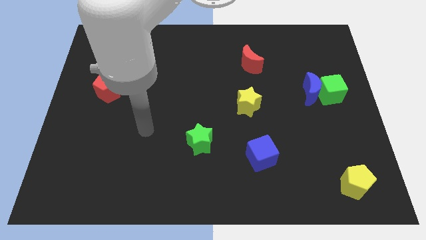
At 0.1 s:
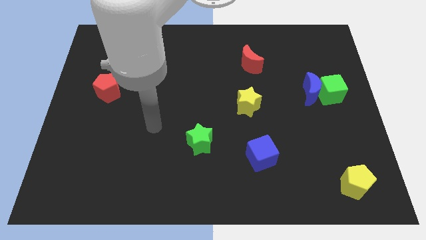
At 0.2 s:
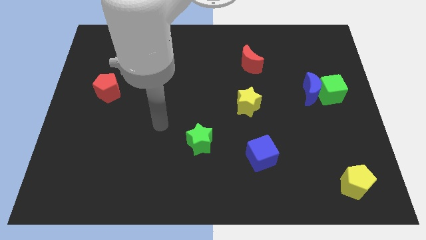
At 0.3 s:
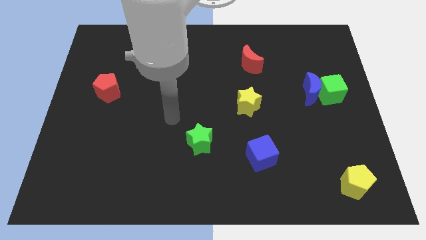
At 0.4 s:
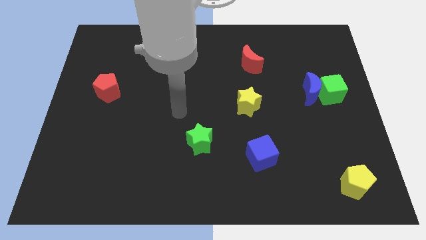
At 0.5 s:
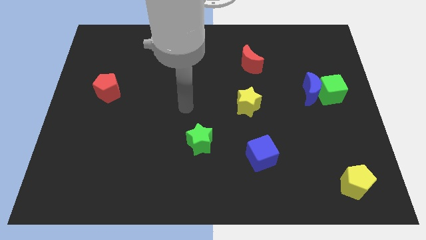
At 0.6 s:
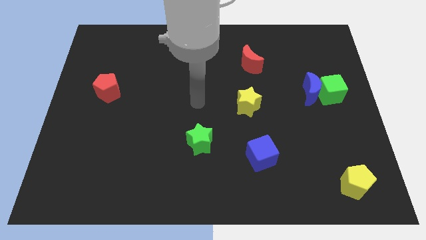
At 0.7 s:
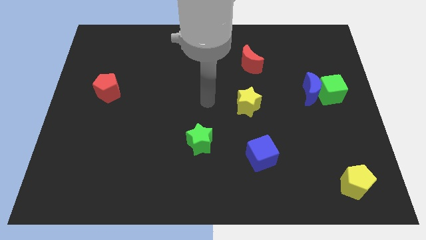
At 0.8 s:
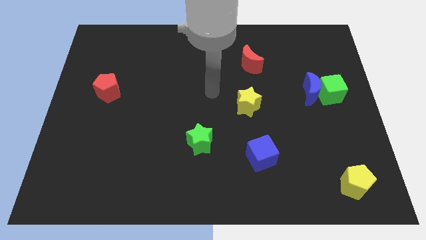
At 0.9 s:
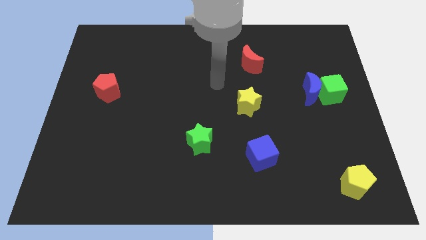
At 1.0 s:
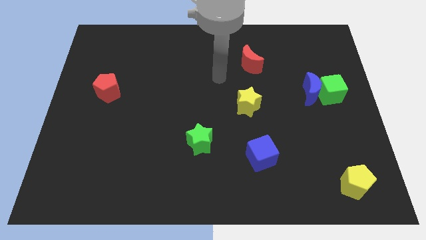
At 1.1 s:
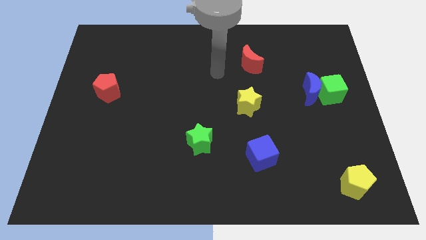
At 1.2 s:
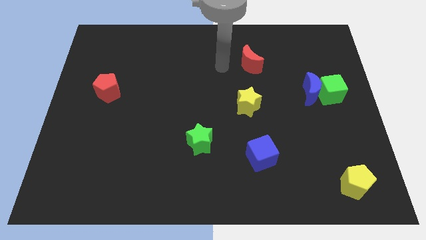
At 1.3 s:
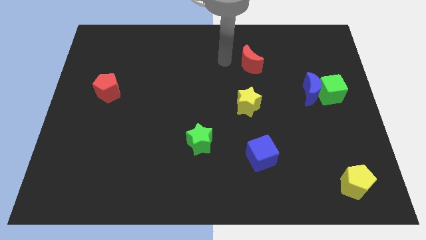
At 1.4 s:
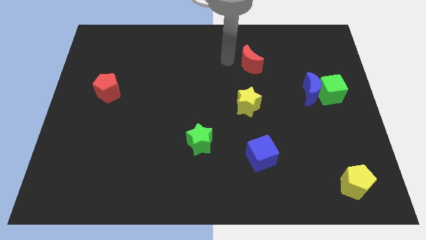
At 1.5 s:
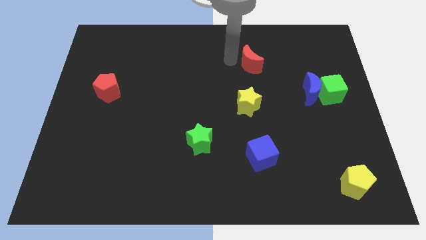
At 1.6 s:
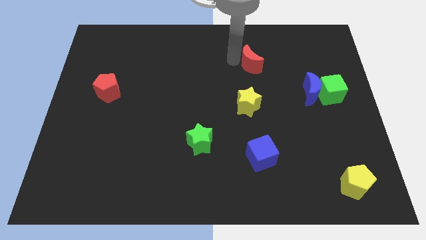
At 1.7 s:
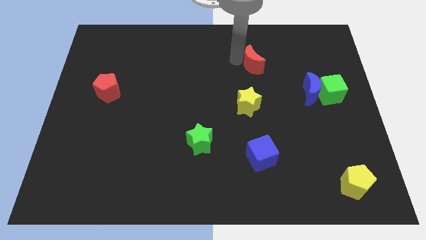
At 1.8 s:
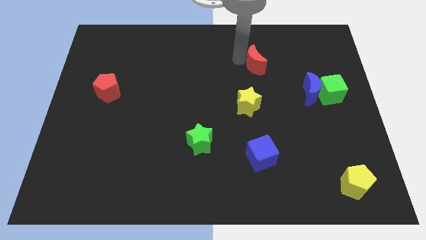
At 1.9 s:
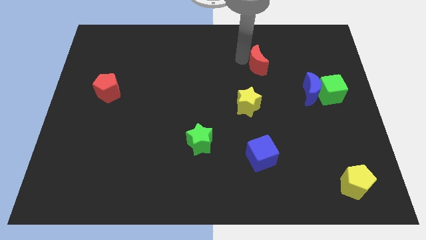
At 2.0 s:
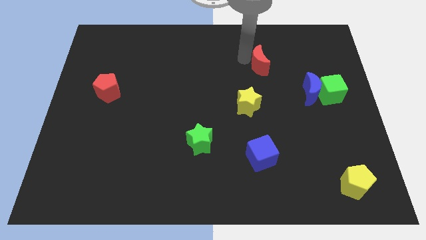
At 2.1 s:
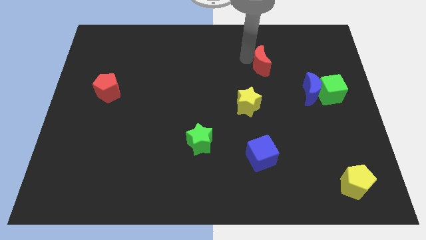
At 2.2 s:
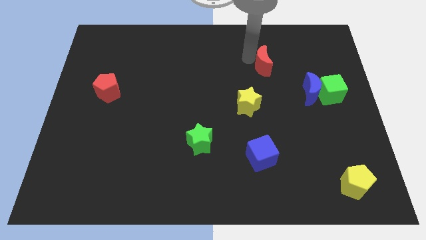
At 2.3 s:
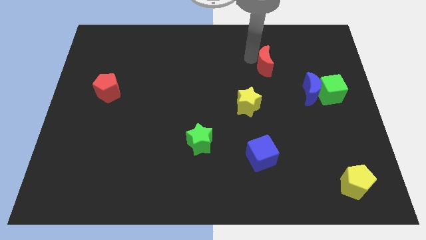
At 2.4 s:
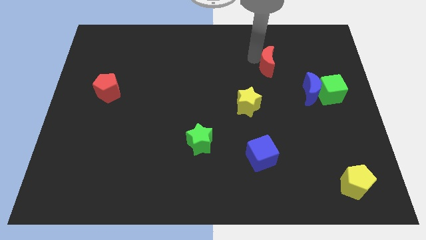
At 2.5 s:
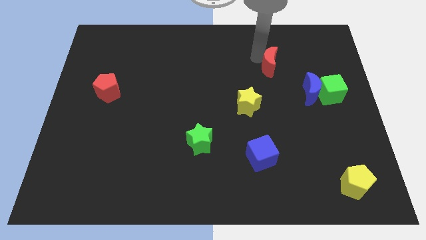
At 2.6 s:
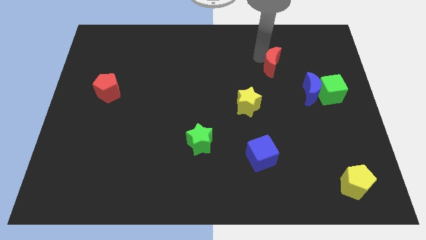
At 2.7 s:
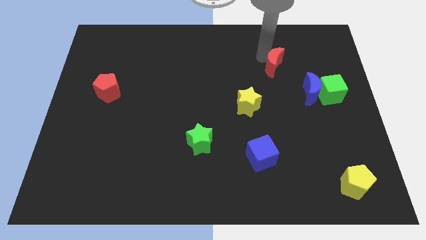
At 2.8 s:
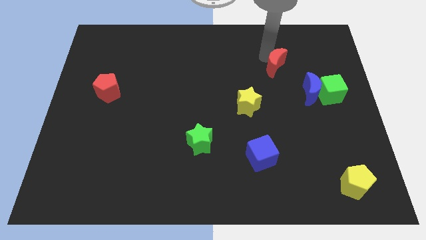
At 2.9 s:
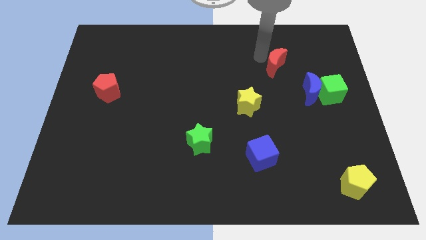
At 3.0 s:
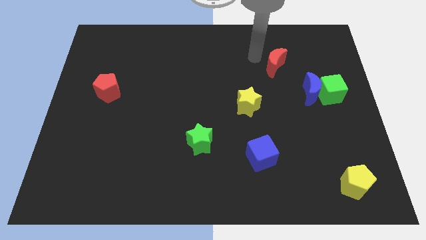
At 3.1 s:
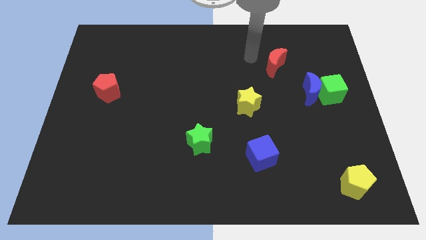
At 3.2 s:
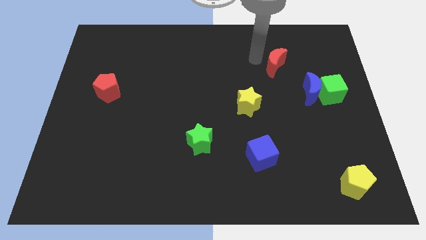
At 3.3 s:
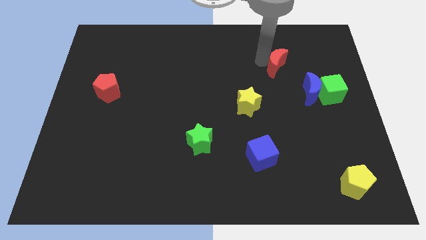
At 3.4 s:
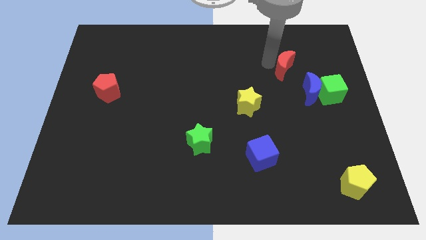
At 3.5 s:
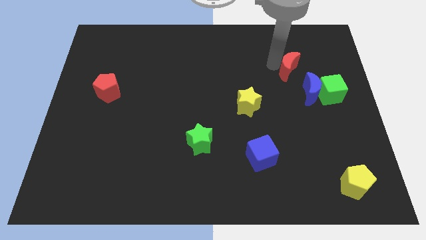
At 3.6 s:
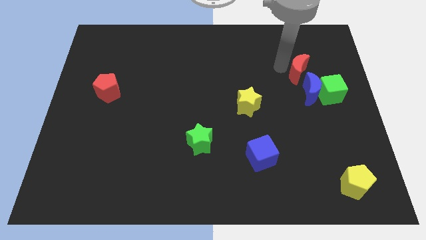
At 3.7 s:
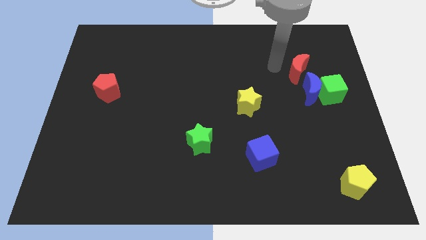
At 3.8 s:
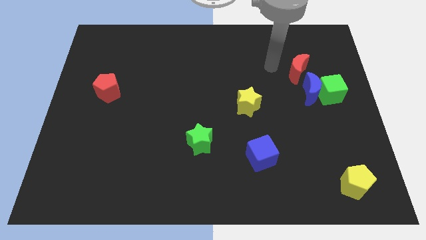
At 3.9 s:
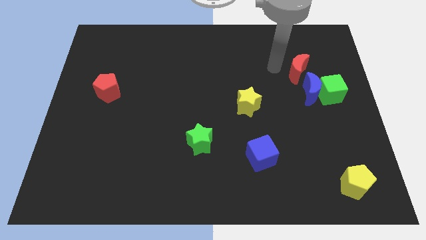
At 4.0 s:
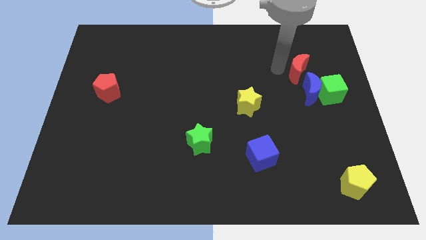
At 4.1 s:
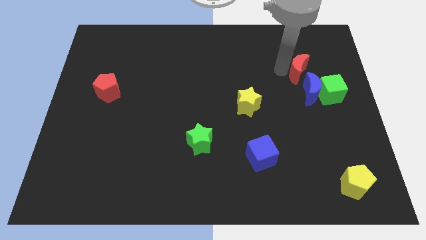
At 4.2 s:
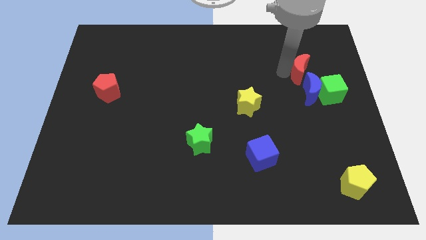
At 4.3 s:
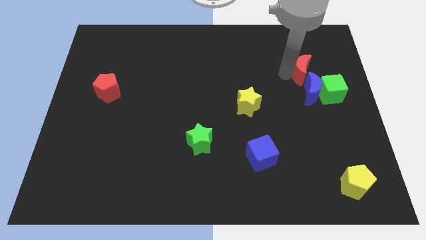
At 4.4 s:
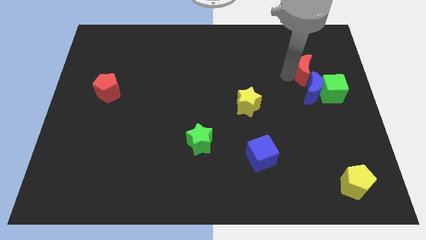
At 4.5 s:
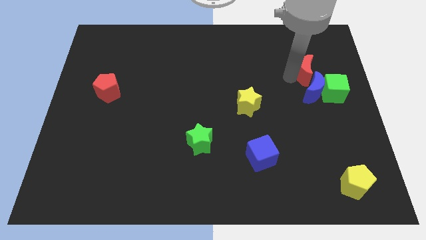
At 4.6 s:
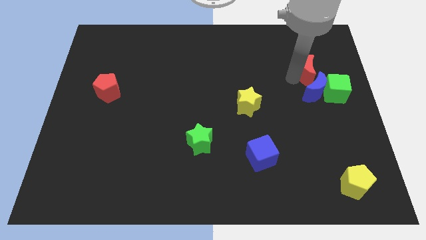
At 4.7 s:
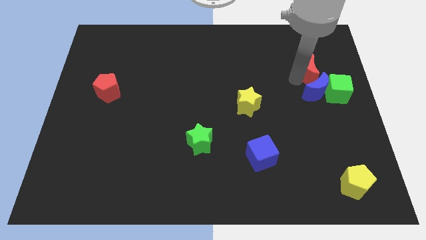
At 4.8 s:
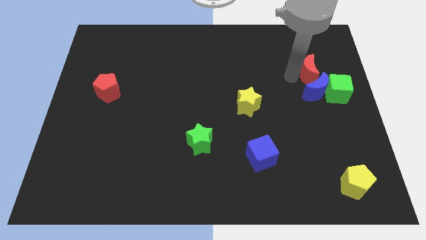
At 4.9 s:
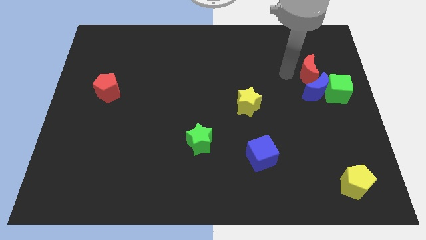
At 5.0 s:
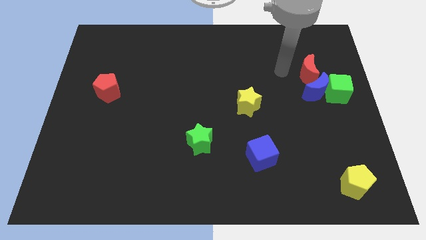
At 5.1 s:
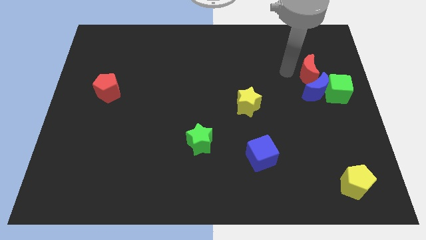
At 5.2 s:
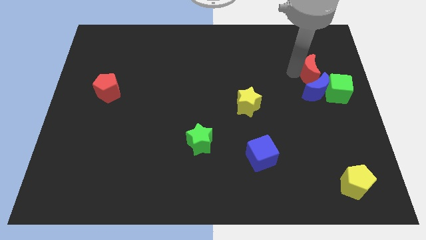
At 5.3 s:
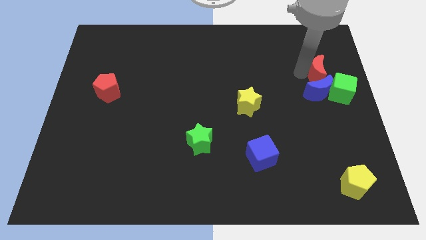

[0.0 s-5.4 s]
slide the red moon diagonally up and to the right of the blue moon

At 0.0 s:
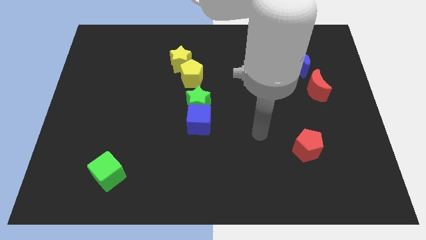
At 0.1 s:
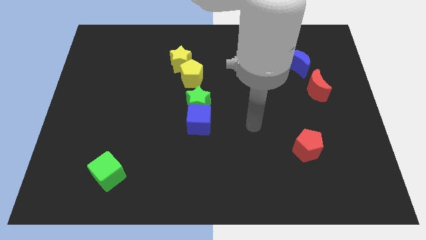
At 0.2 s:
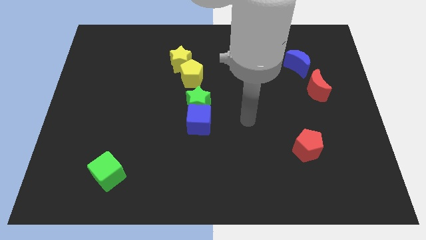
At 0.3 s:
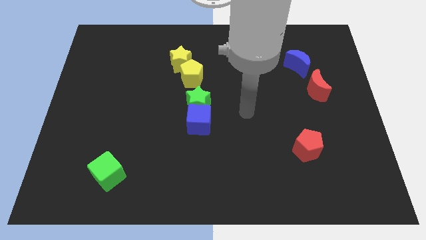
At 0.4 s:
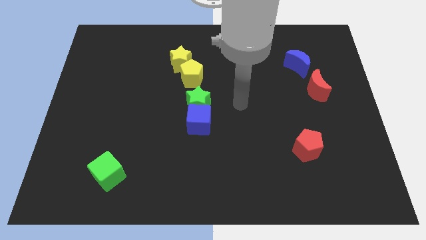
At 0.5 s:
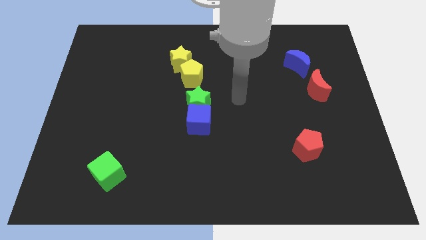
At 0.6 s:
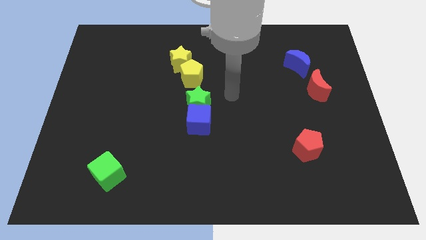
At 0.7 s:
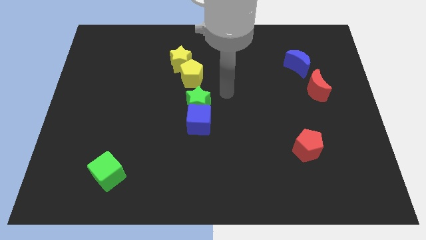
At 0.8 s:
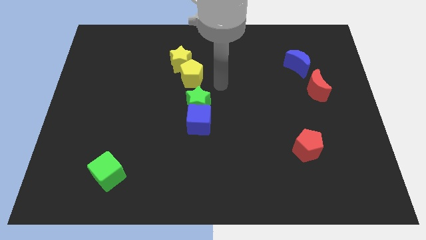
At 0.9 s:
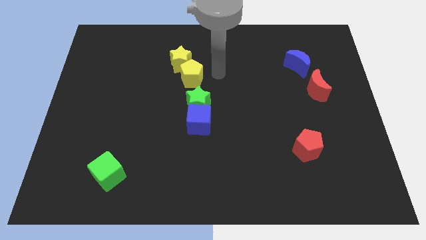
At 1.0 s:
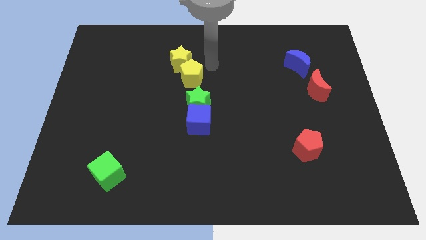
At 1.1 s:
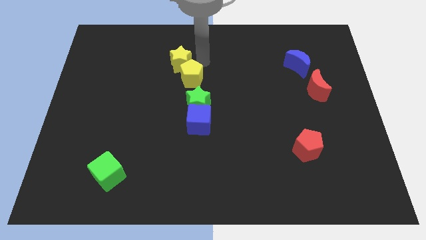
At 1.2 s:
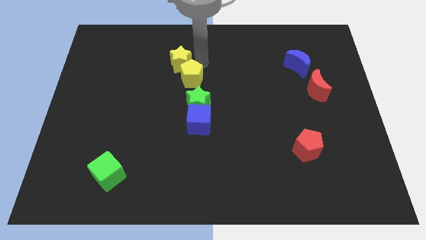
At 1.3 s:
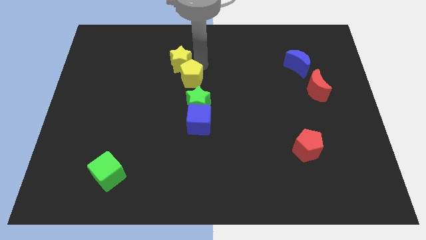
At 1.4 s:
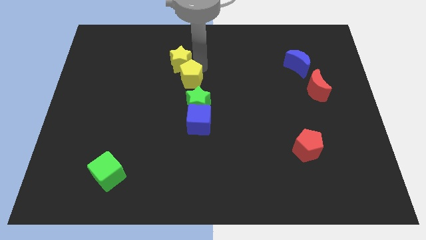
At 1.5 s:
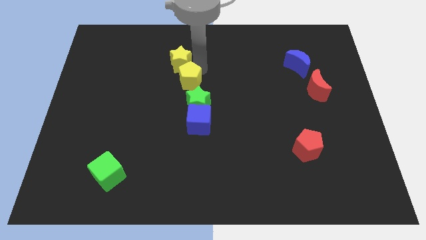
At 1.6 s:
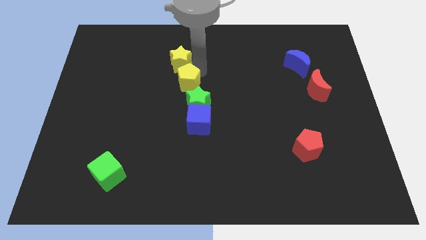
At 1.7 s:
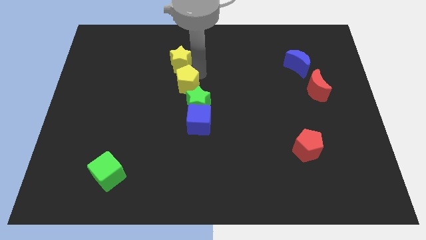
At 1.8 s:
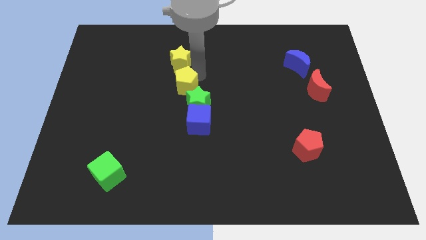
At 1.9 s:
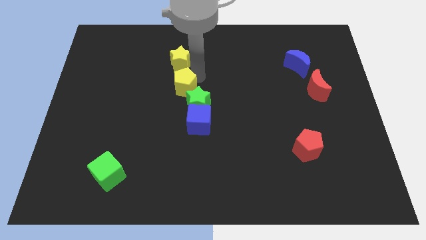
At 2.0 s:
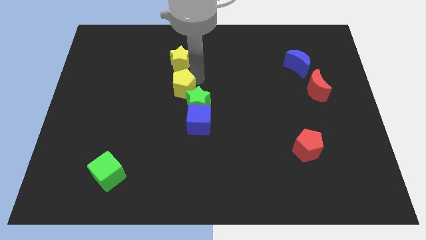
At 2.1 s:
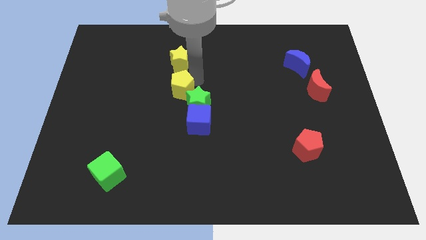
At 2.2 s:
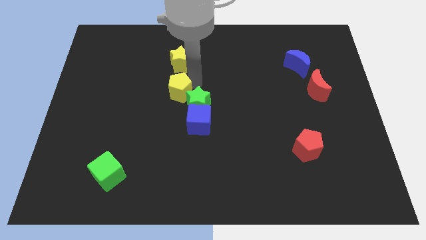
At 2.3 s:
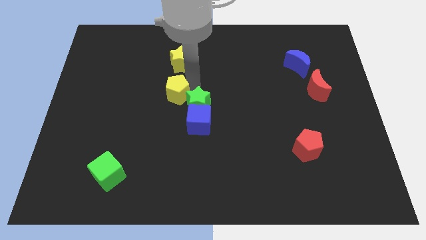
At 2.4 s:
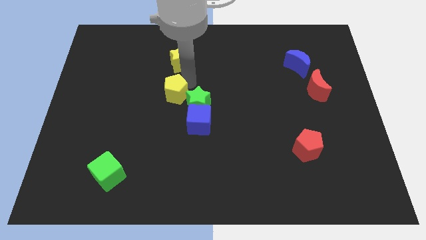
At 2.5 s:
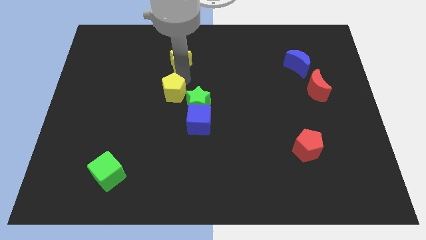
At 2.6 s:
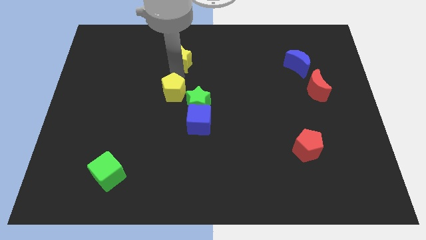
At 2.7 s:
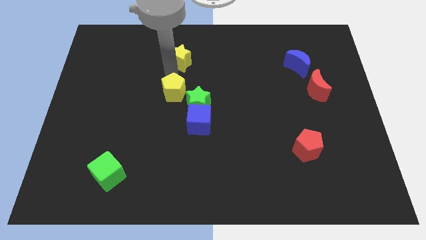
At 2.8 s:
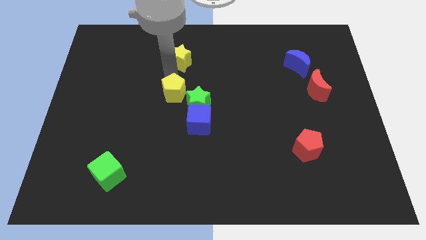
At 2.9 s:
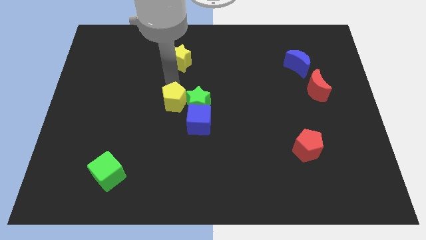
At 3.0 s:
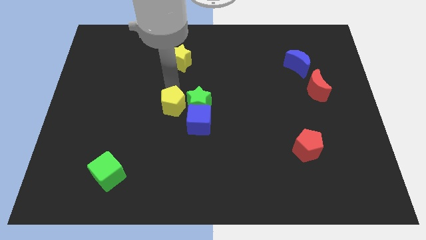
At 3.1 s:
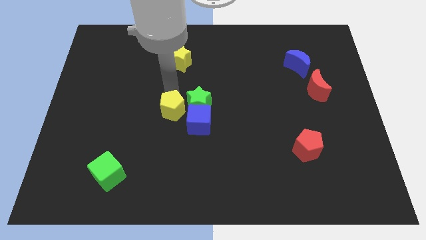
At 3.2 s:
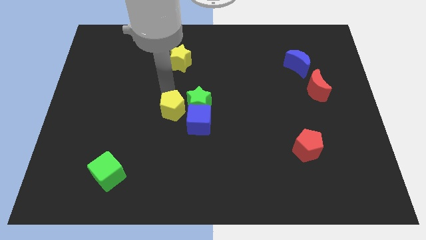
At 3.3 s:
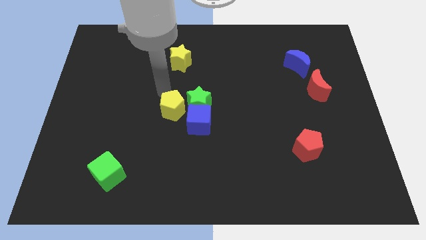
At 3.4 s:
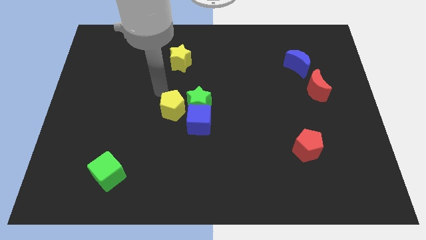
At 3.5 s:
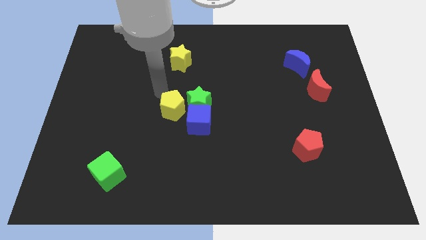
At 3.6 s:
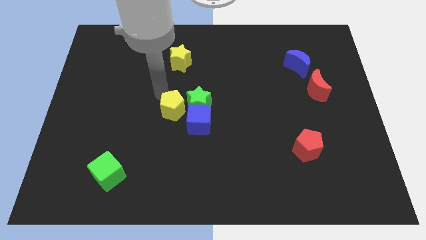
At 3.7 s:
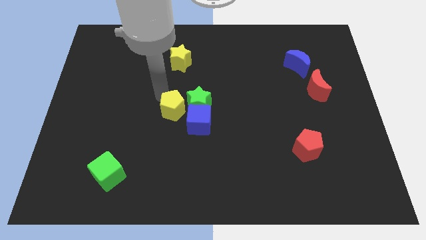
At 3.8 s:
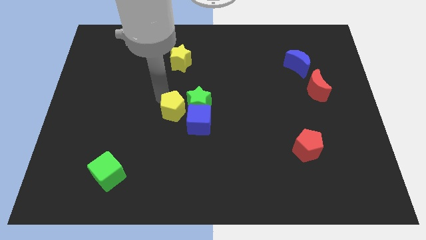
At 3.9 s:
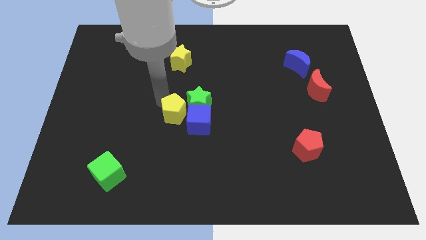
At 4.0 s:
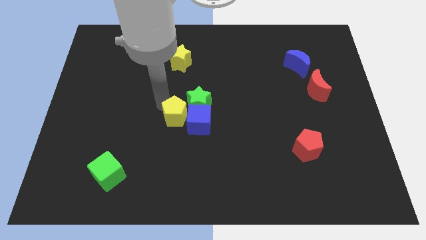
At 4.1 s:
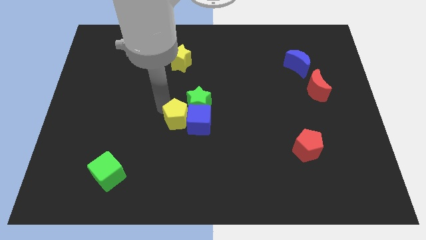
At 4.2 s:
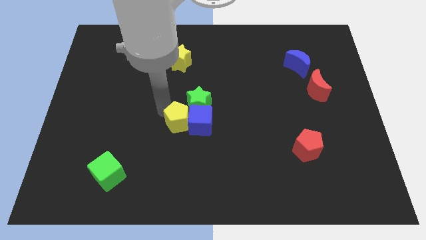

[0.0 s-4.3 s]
push the yellow pentagon below the green star
